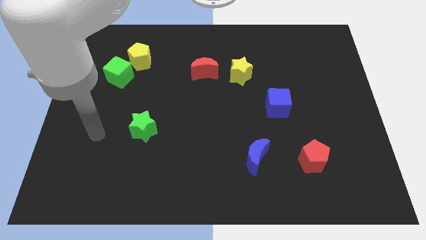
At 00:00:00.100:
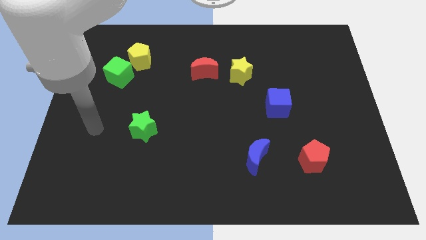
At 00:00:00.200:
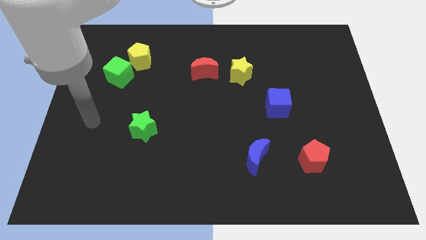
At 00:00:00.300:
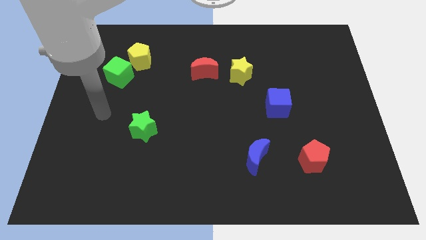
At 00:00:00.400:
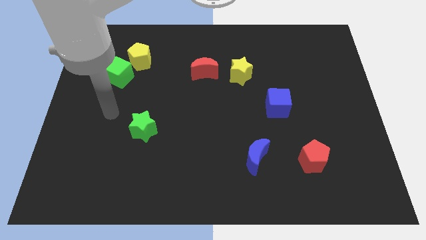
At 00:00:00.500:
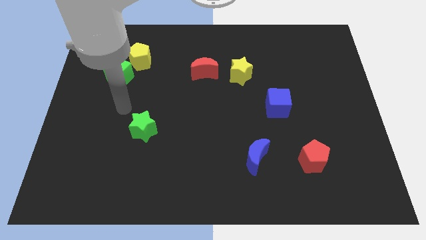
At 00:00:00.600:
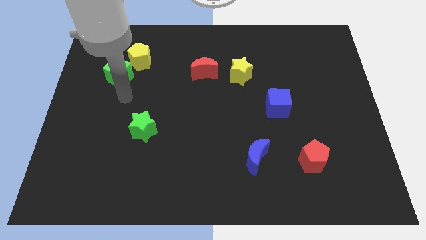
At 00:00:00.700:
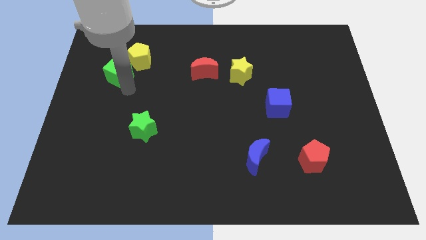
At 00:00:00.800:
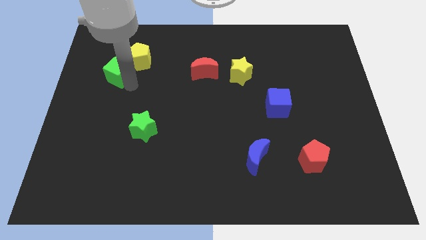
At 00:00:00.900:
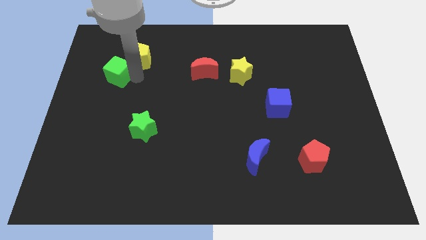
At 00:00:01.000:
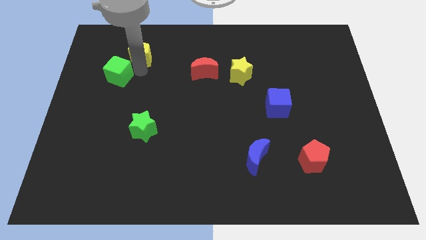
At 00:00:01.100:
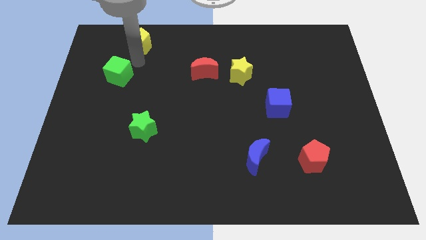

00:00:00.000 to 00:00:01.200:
pull the green cube apart from the yellow pentagon

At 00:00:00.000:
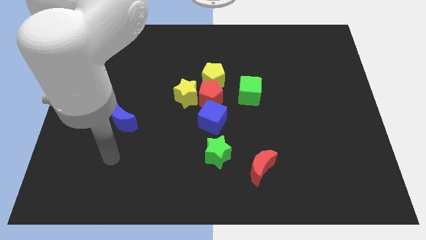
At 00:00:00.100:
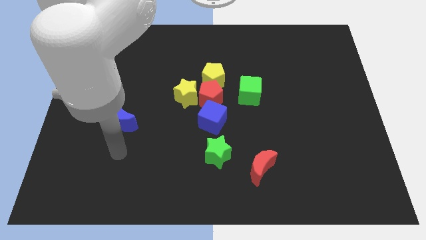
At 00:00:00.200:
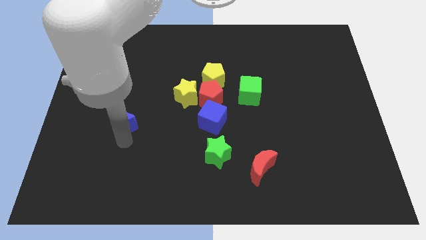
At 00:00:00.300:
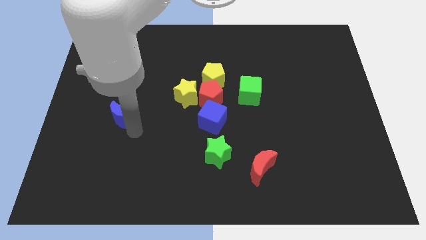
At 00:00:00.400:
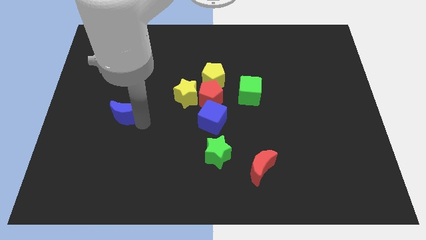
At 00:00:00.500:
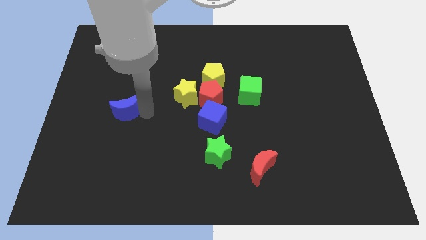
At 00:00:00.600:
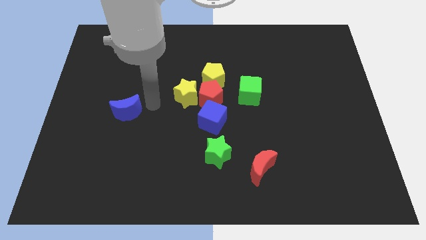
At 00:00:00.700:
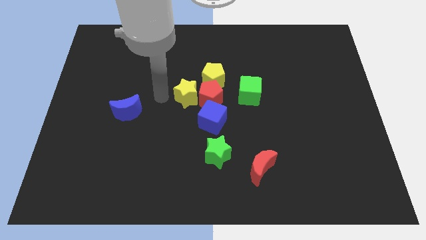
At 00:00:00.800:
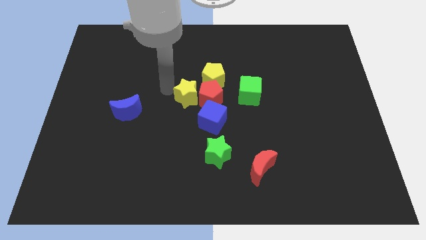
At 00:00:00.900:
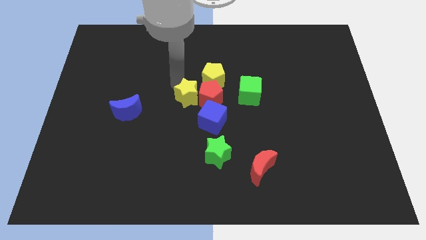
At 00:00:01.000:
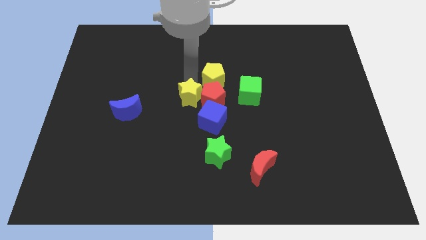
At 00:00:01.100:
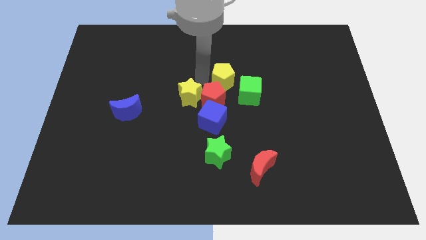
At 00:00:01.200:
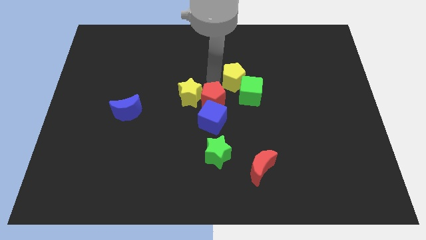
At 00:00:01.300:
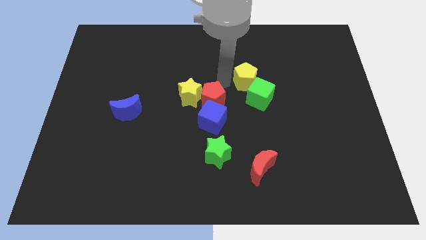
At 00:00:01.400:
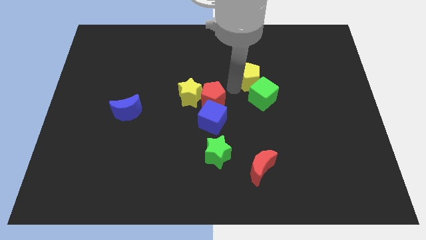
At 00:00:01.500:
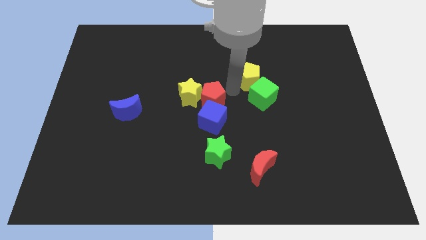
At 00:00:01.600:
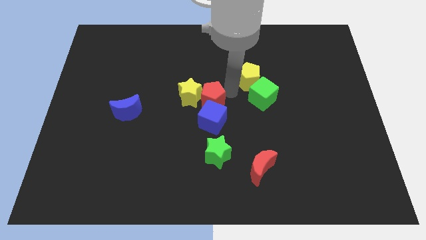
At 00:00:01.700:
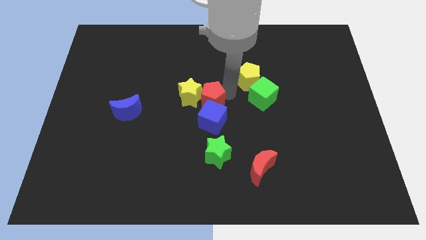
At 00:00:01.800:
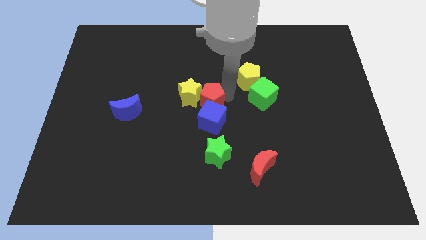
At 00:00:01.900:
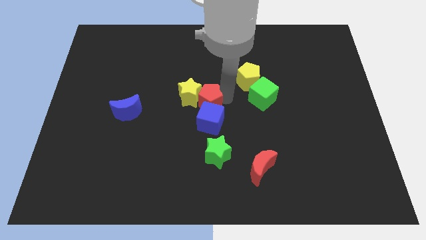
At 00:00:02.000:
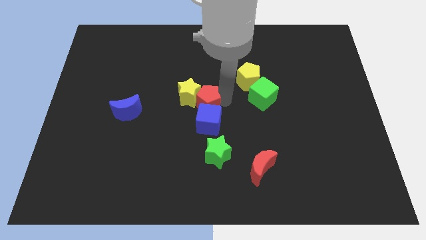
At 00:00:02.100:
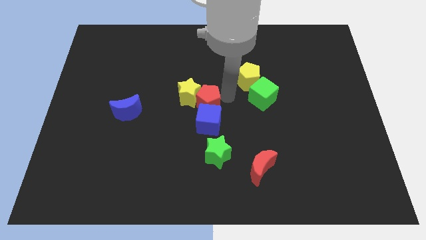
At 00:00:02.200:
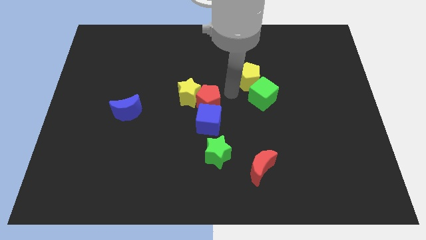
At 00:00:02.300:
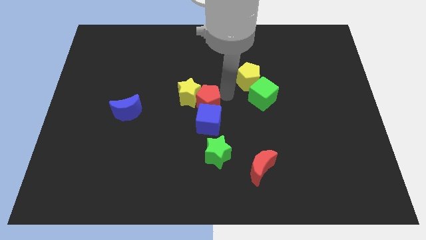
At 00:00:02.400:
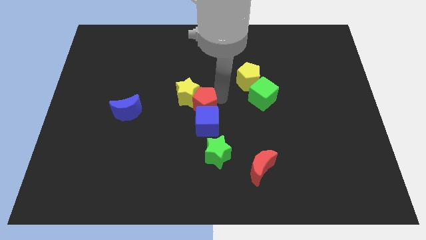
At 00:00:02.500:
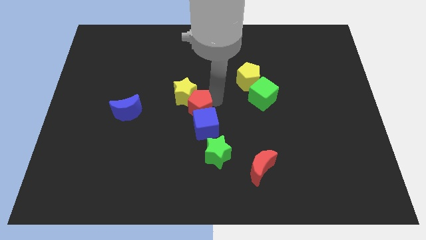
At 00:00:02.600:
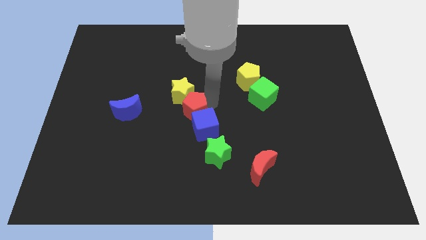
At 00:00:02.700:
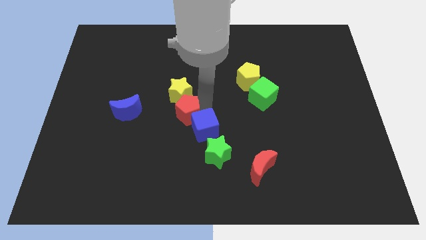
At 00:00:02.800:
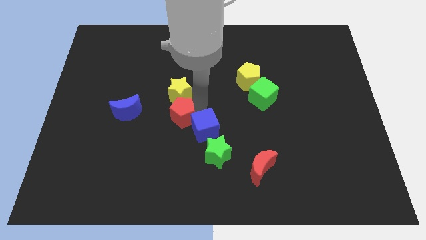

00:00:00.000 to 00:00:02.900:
move the red pentagon away from the clump

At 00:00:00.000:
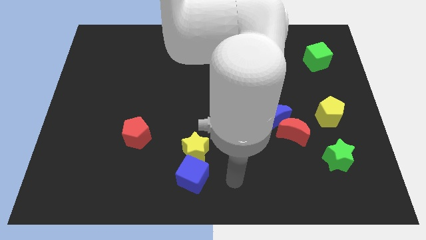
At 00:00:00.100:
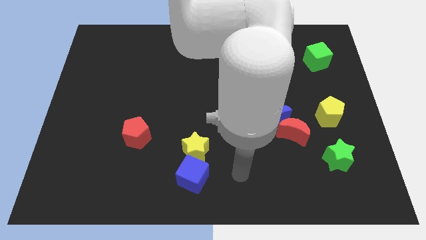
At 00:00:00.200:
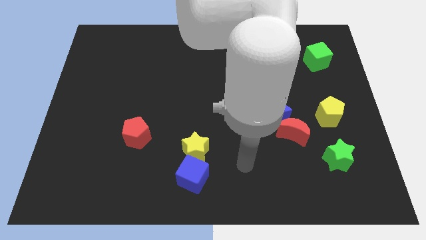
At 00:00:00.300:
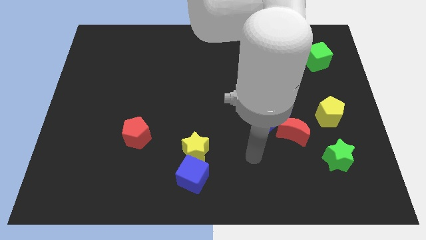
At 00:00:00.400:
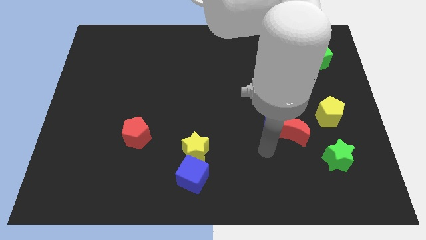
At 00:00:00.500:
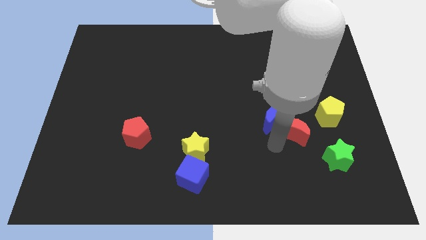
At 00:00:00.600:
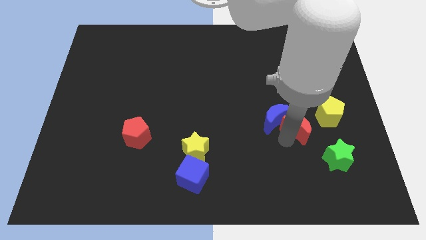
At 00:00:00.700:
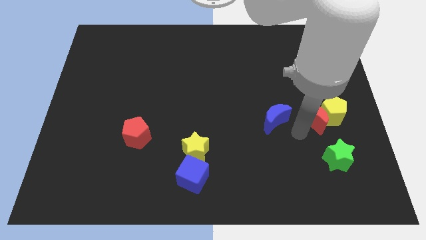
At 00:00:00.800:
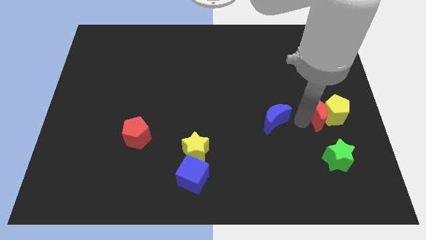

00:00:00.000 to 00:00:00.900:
pull the blue moon apart from the red moon

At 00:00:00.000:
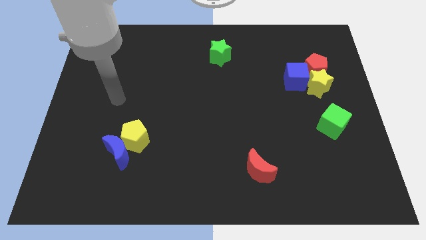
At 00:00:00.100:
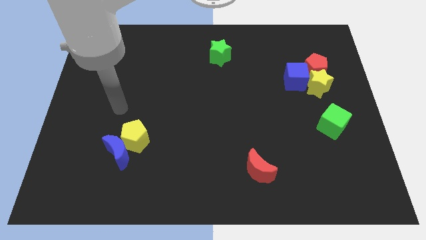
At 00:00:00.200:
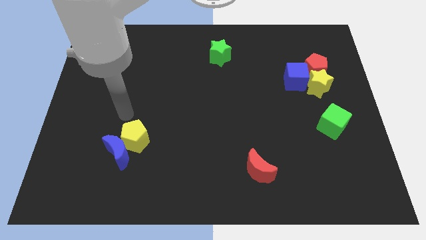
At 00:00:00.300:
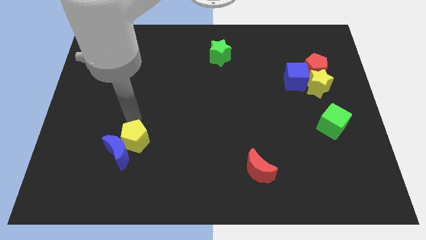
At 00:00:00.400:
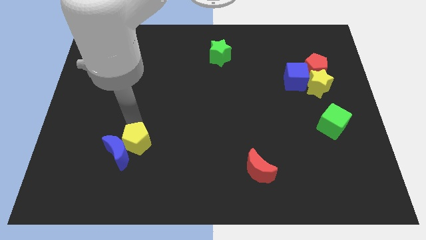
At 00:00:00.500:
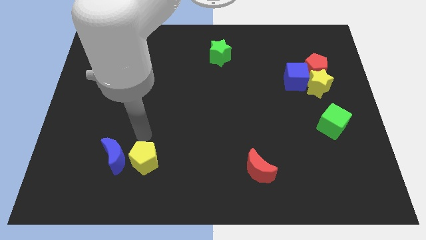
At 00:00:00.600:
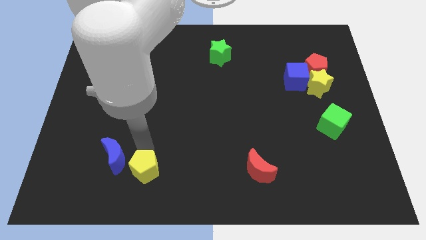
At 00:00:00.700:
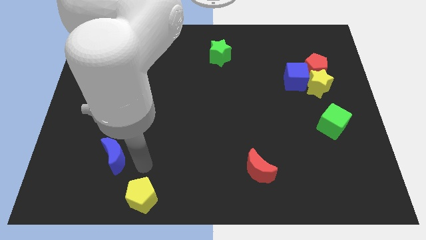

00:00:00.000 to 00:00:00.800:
pull the blue moon apart from the yellow pentagon

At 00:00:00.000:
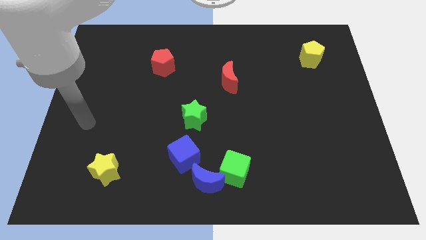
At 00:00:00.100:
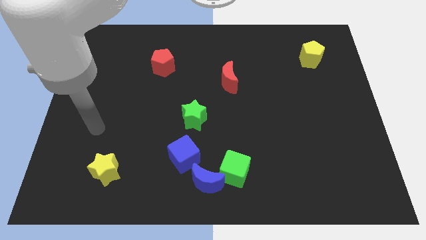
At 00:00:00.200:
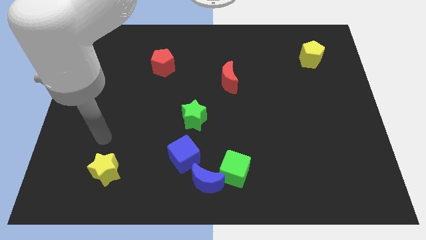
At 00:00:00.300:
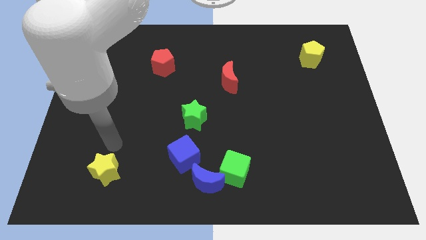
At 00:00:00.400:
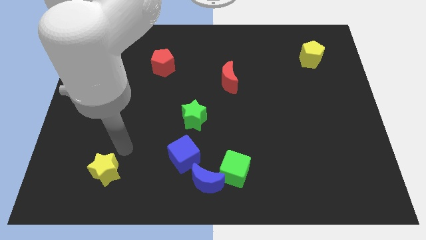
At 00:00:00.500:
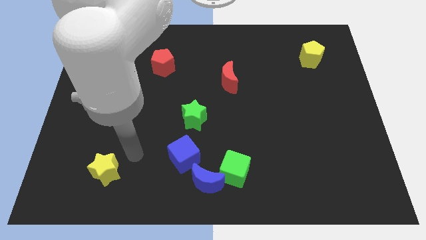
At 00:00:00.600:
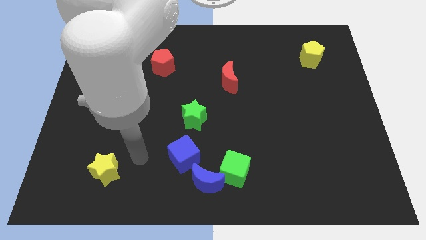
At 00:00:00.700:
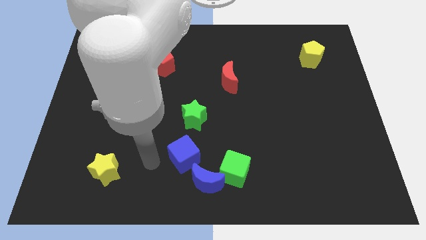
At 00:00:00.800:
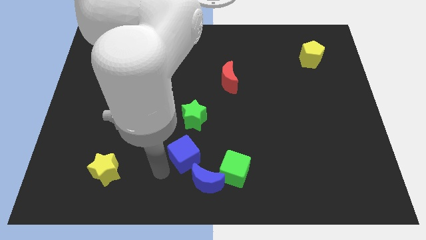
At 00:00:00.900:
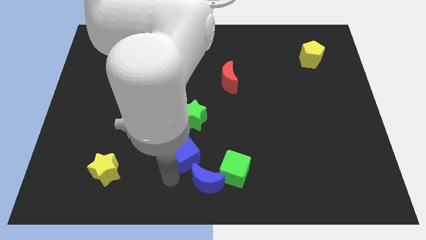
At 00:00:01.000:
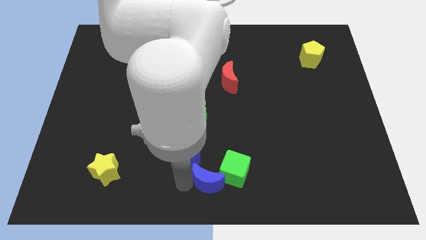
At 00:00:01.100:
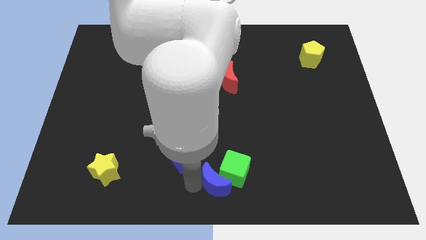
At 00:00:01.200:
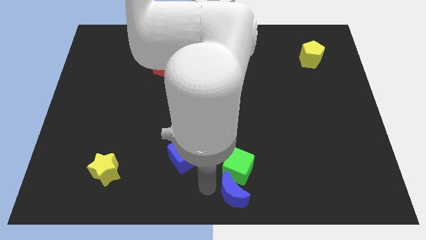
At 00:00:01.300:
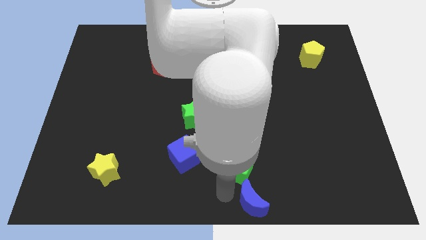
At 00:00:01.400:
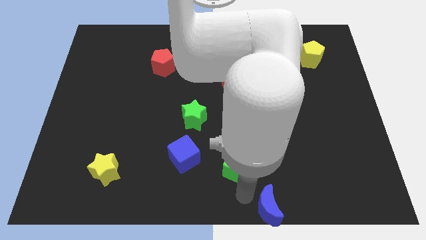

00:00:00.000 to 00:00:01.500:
pull the green cube apart from the blue moon

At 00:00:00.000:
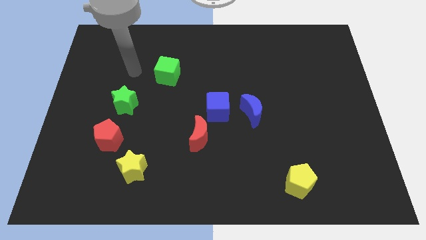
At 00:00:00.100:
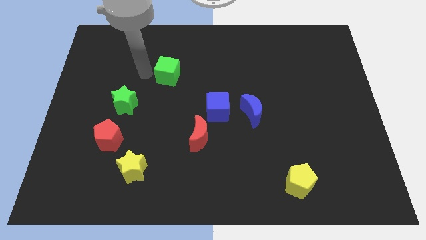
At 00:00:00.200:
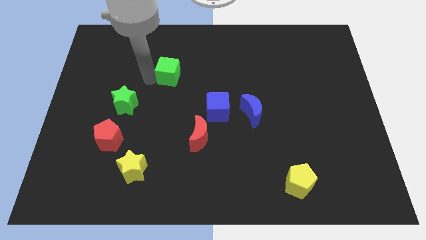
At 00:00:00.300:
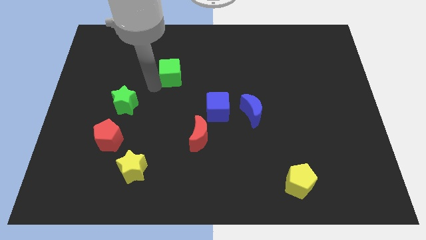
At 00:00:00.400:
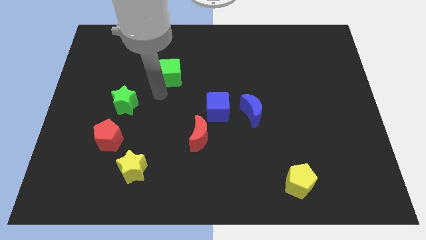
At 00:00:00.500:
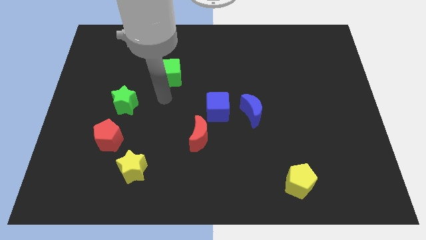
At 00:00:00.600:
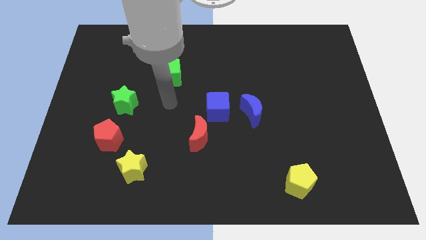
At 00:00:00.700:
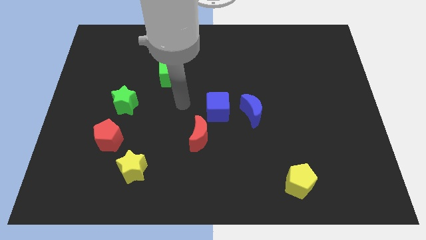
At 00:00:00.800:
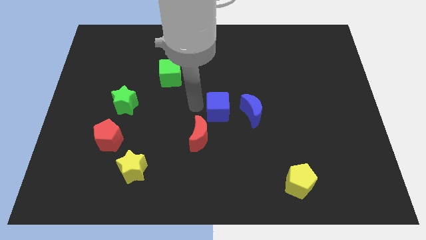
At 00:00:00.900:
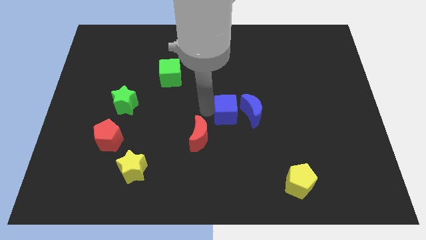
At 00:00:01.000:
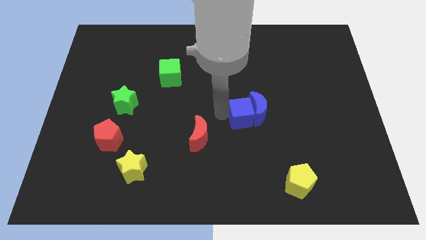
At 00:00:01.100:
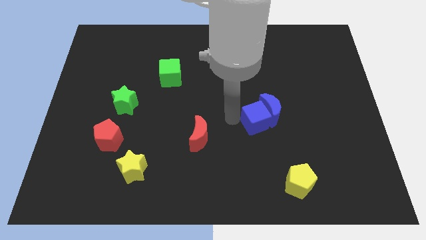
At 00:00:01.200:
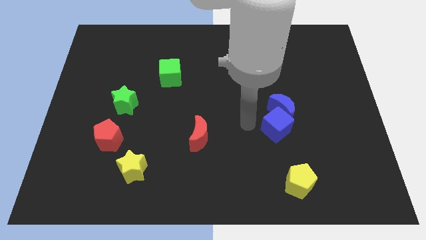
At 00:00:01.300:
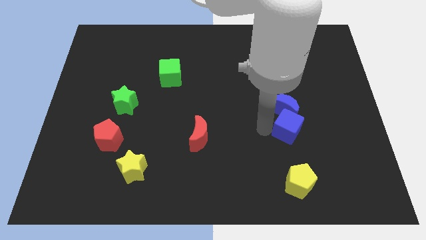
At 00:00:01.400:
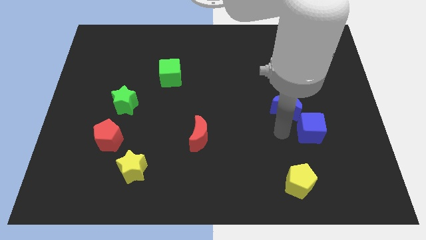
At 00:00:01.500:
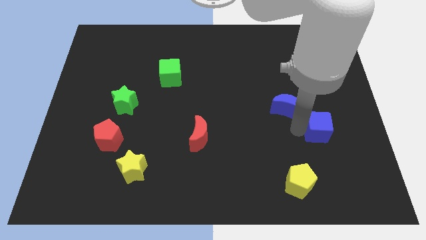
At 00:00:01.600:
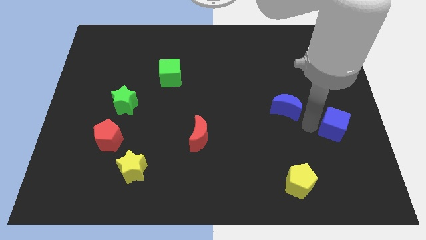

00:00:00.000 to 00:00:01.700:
move the blue moon away from the blue cube

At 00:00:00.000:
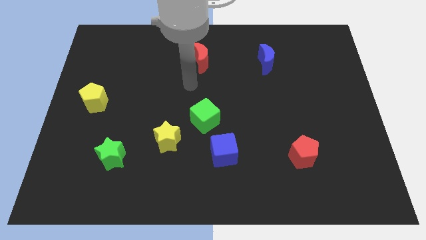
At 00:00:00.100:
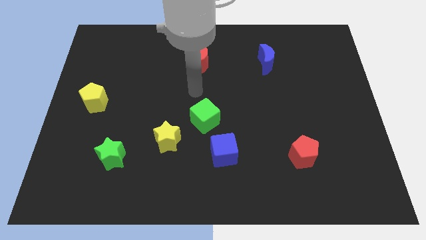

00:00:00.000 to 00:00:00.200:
separate the blue cube from the green cube
